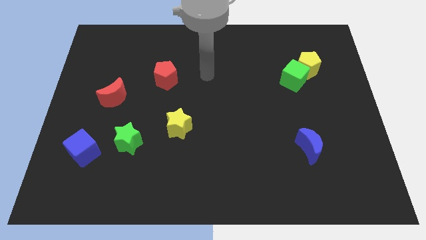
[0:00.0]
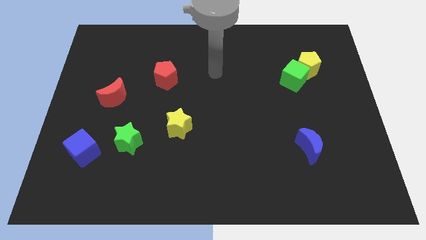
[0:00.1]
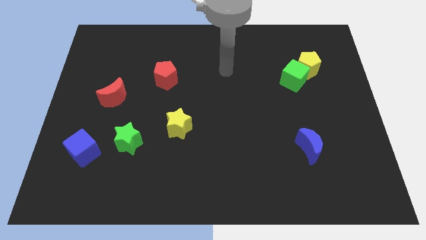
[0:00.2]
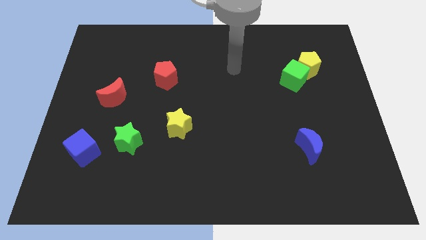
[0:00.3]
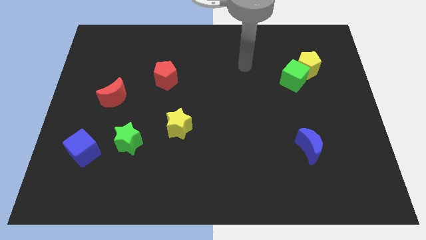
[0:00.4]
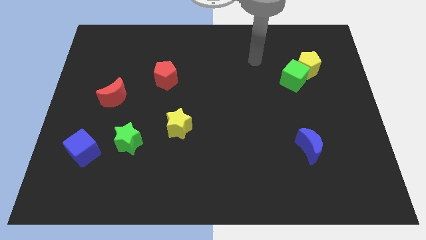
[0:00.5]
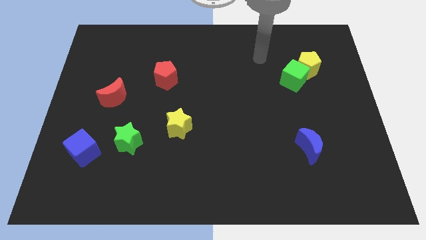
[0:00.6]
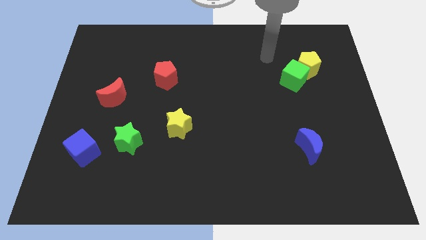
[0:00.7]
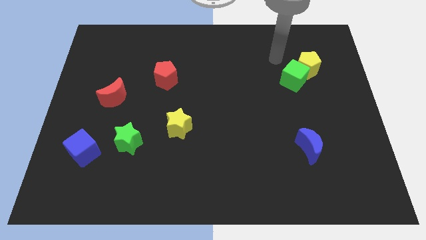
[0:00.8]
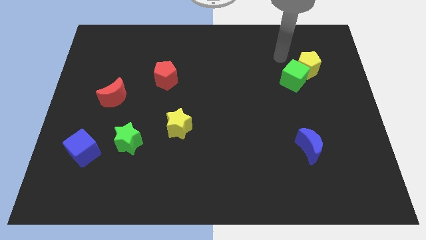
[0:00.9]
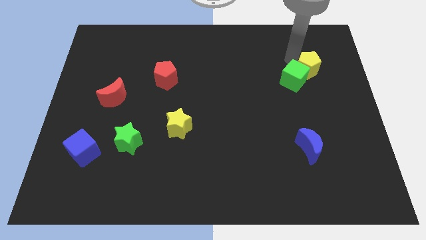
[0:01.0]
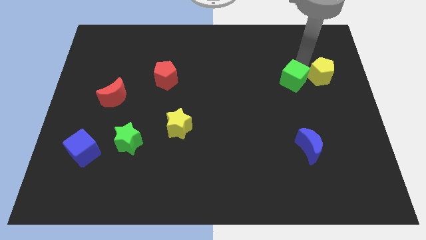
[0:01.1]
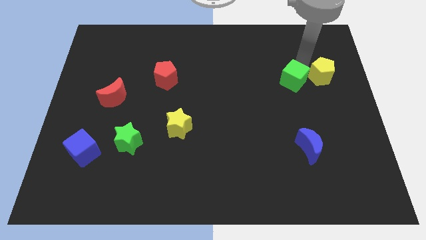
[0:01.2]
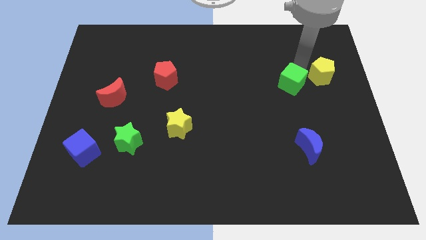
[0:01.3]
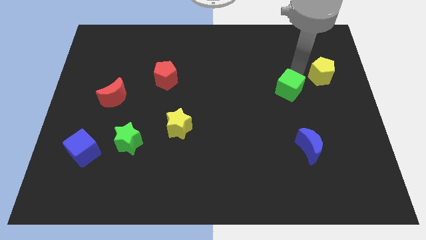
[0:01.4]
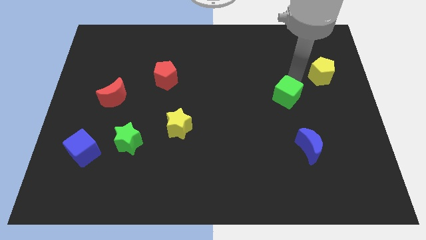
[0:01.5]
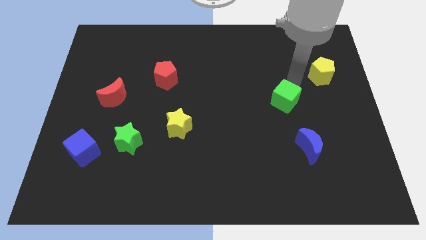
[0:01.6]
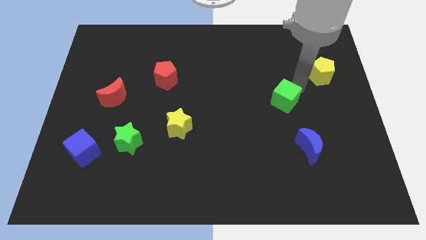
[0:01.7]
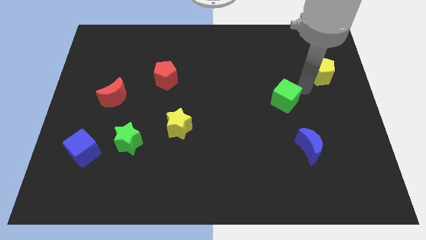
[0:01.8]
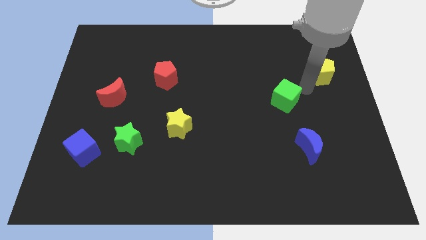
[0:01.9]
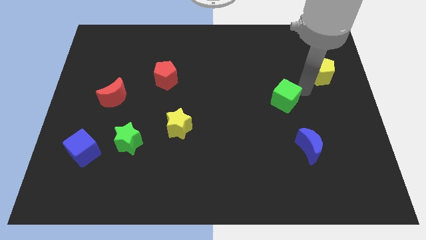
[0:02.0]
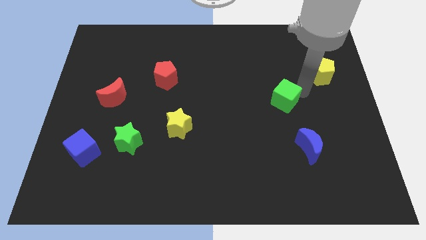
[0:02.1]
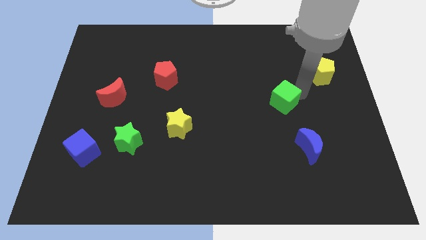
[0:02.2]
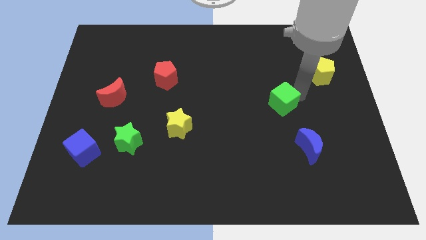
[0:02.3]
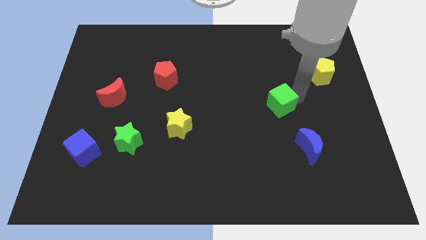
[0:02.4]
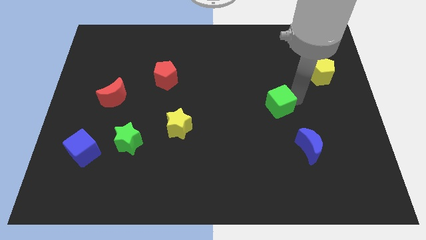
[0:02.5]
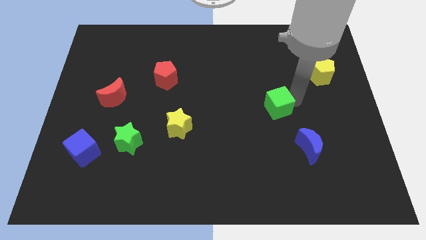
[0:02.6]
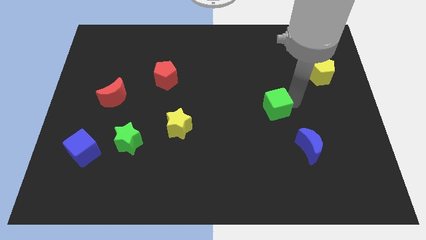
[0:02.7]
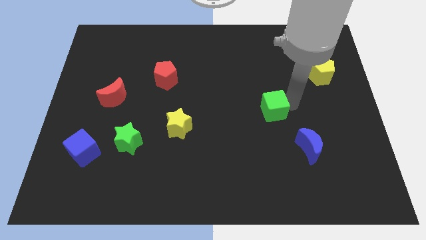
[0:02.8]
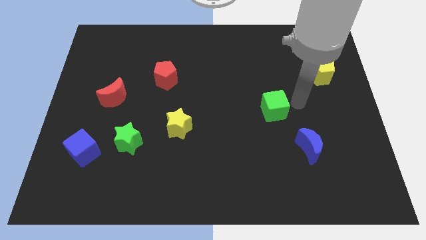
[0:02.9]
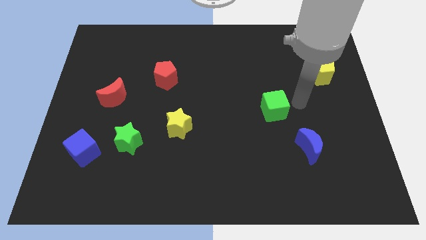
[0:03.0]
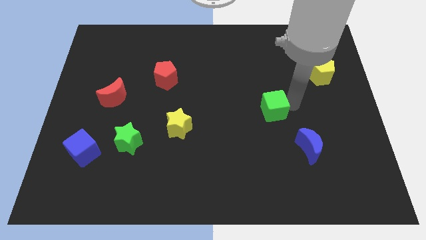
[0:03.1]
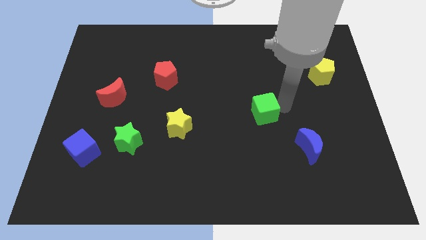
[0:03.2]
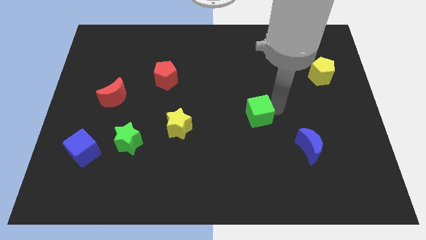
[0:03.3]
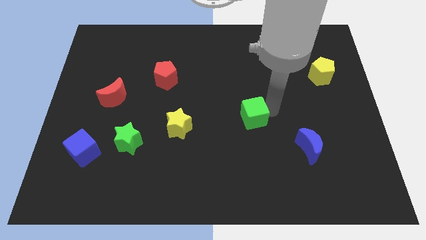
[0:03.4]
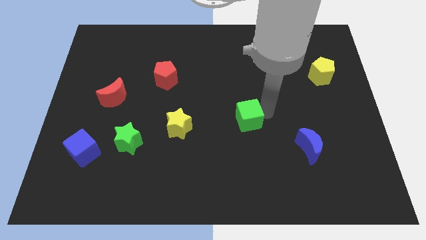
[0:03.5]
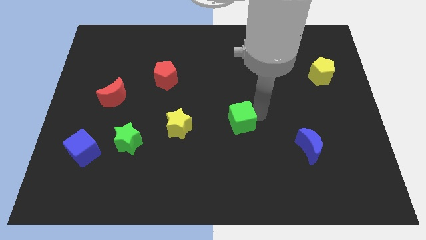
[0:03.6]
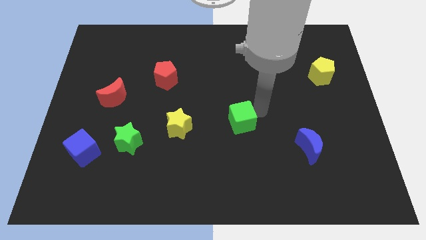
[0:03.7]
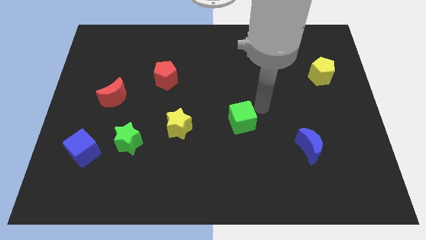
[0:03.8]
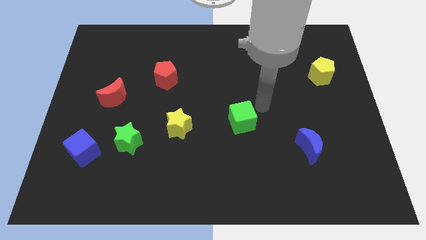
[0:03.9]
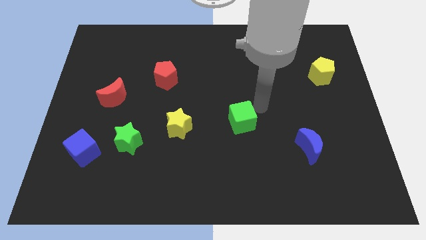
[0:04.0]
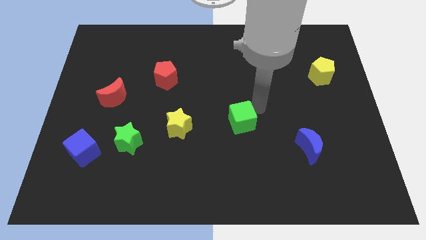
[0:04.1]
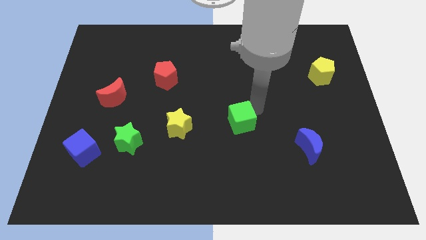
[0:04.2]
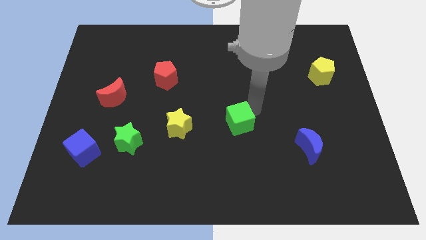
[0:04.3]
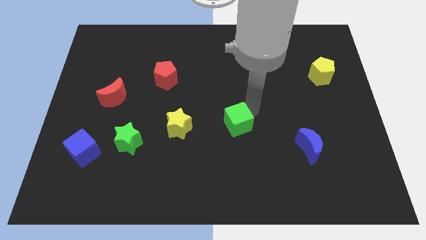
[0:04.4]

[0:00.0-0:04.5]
push the green cube down and left diagonally

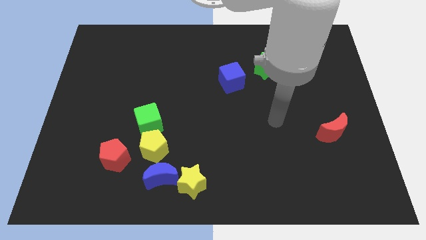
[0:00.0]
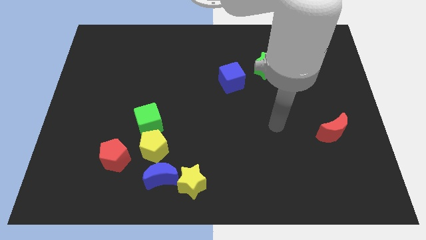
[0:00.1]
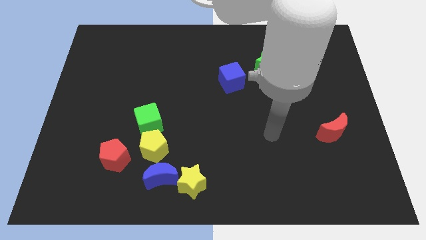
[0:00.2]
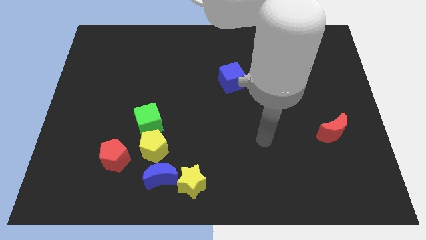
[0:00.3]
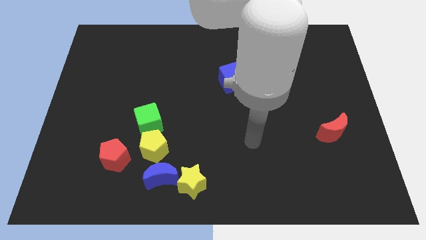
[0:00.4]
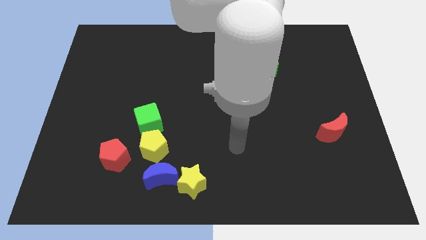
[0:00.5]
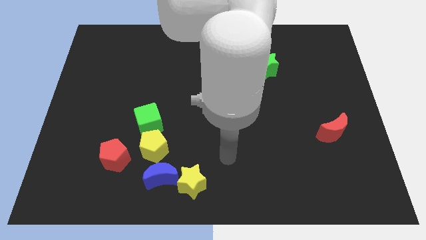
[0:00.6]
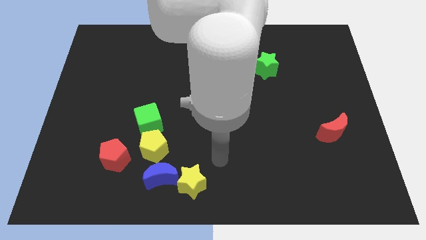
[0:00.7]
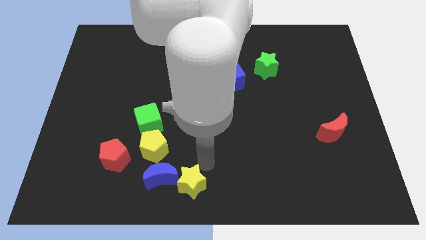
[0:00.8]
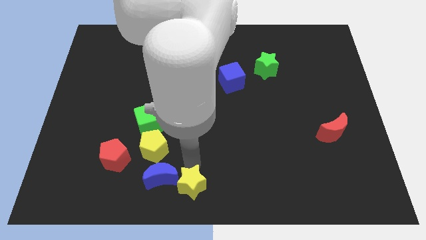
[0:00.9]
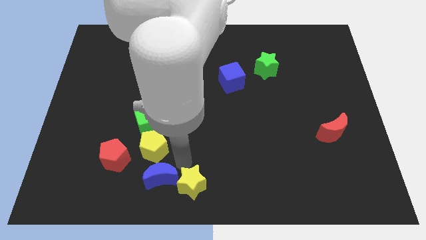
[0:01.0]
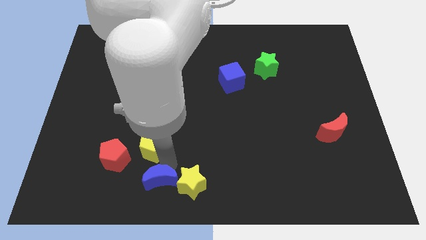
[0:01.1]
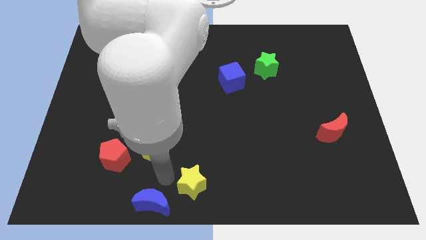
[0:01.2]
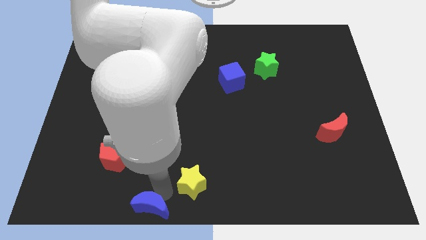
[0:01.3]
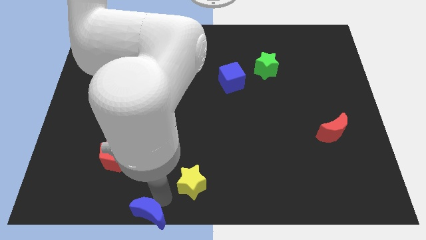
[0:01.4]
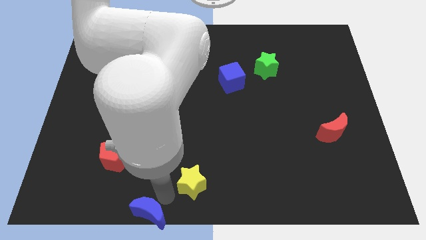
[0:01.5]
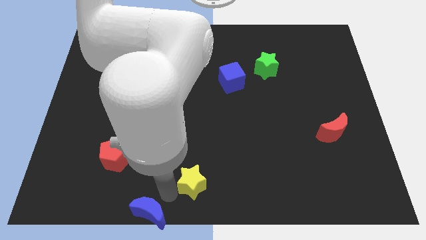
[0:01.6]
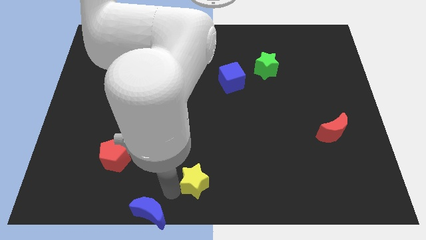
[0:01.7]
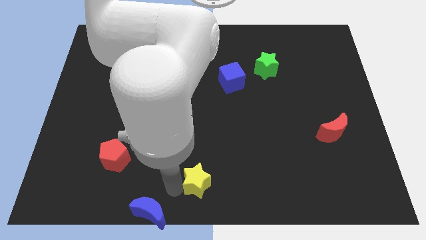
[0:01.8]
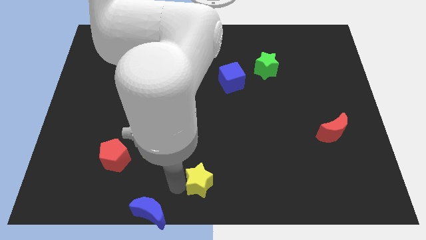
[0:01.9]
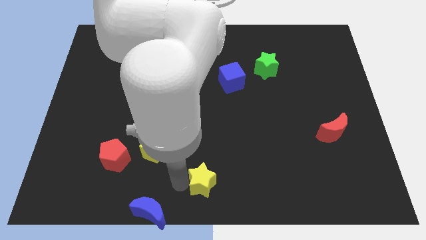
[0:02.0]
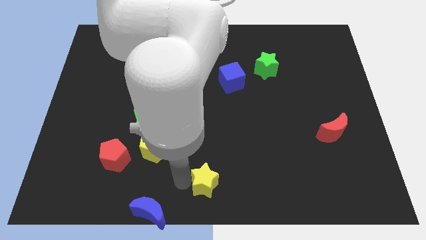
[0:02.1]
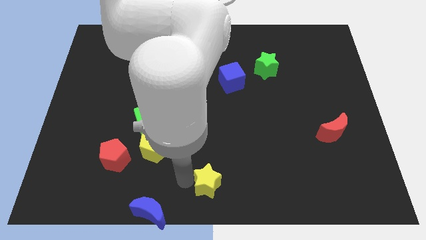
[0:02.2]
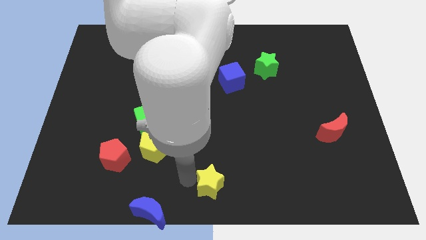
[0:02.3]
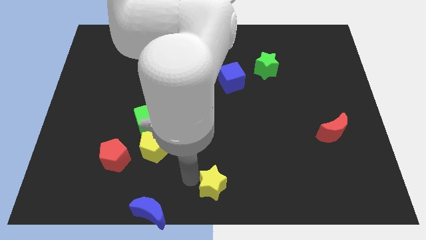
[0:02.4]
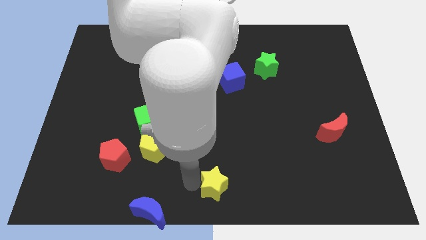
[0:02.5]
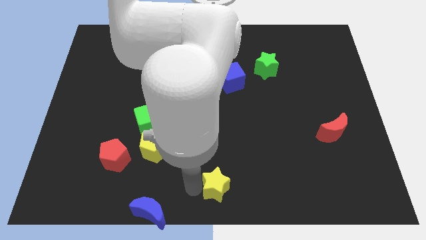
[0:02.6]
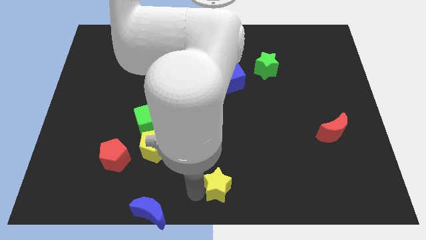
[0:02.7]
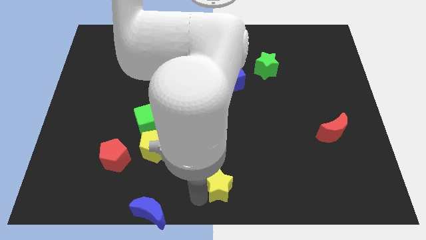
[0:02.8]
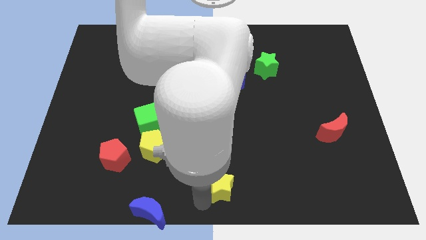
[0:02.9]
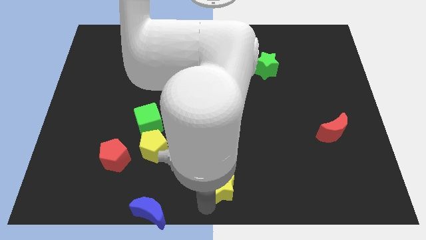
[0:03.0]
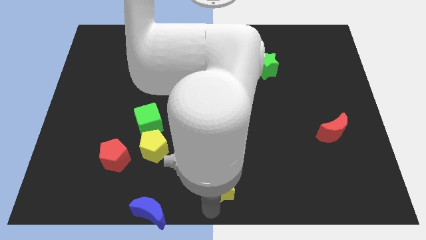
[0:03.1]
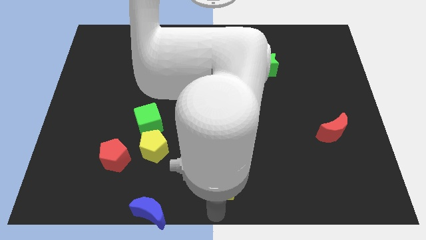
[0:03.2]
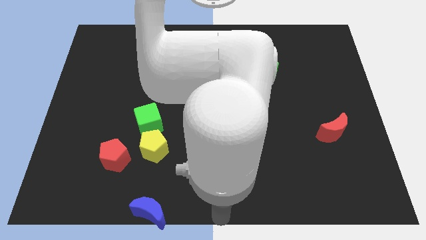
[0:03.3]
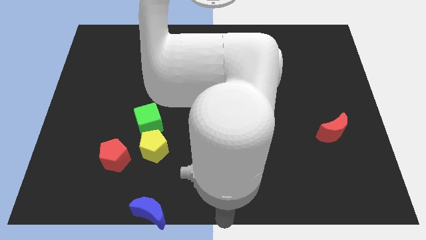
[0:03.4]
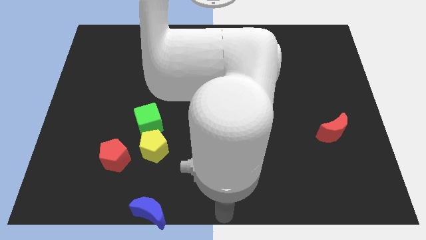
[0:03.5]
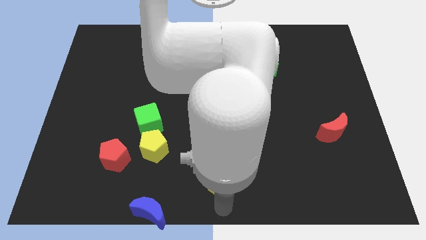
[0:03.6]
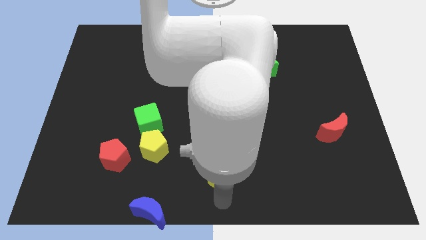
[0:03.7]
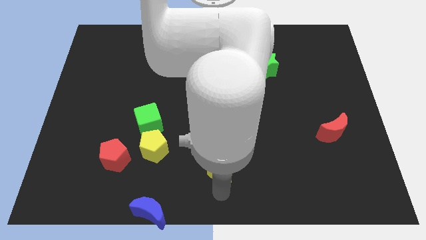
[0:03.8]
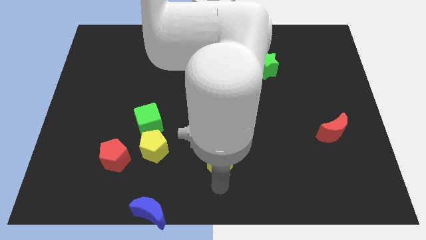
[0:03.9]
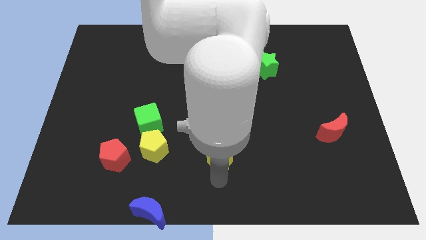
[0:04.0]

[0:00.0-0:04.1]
slide the yellow star up and right a bit
